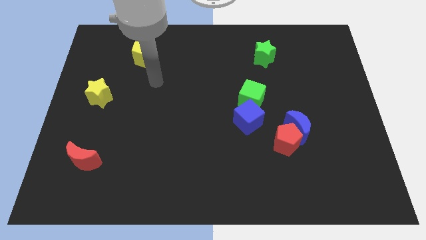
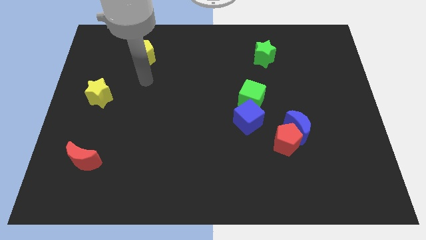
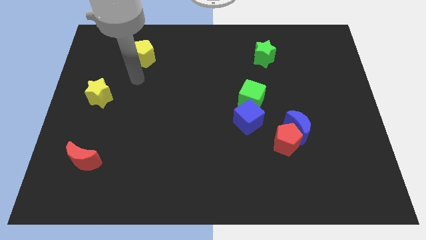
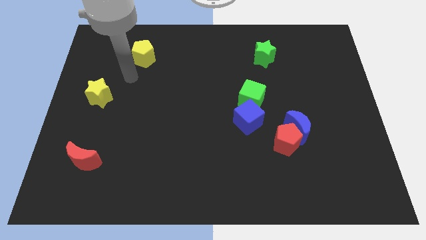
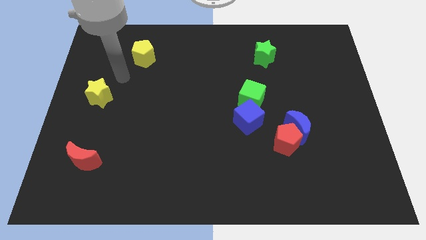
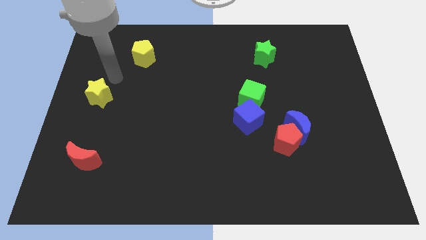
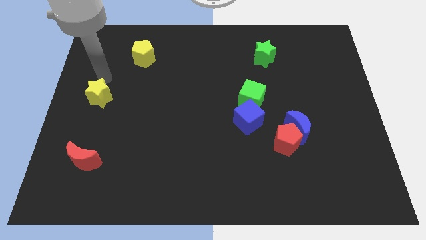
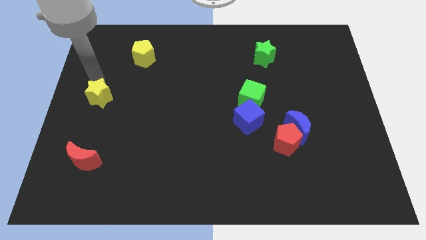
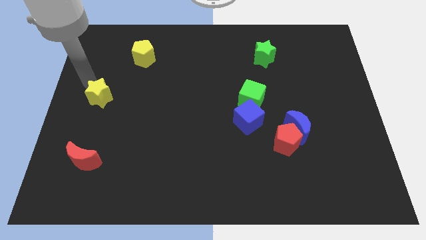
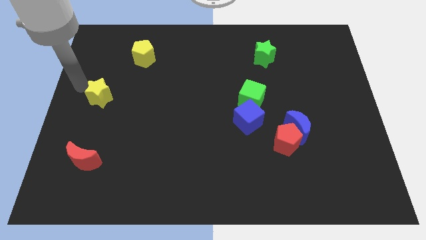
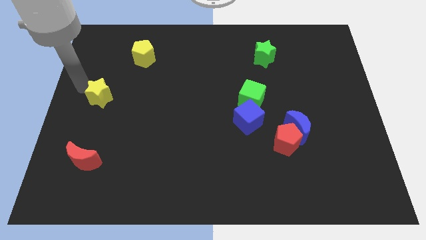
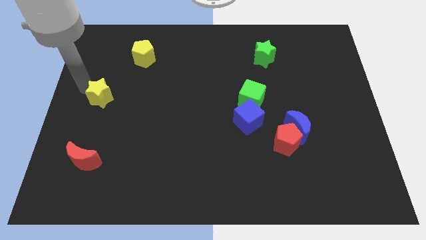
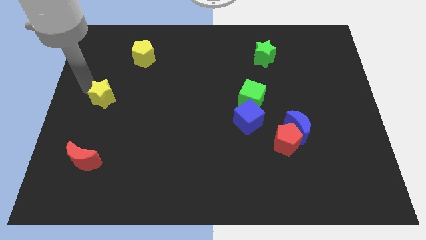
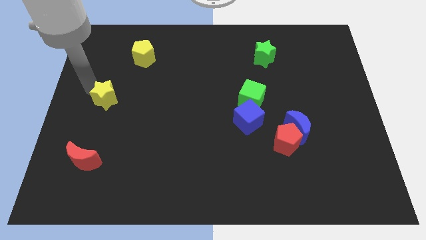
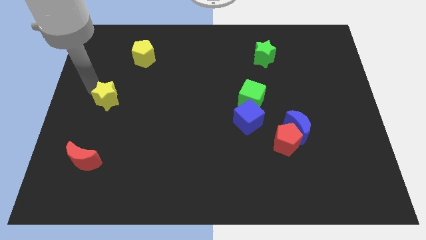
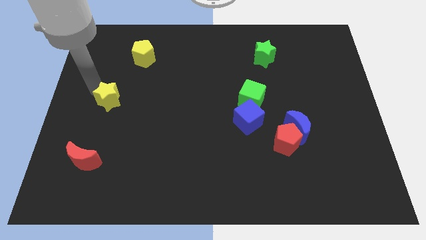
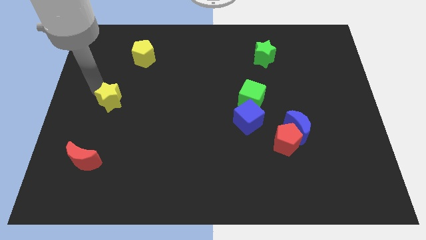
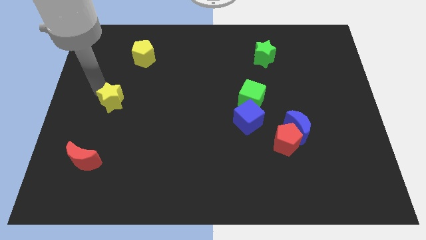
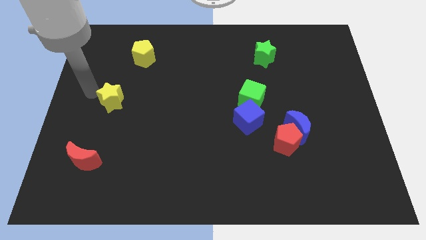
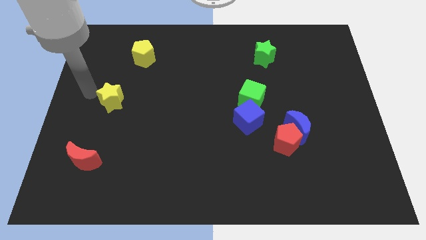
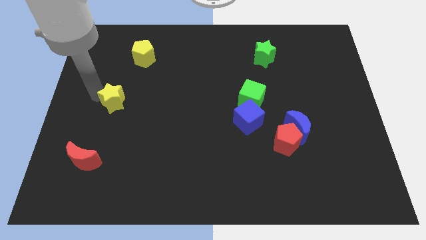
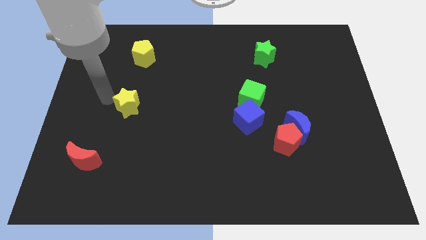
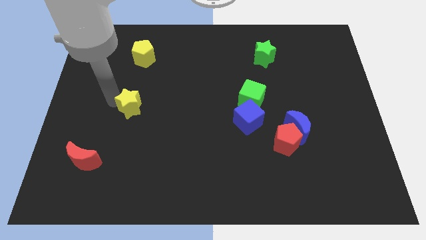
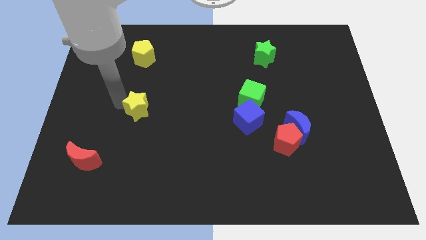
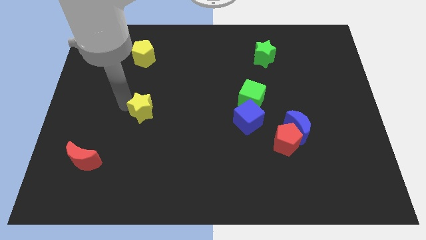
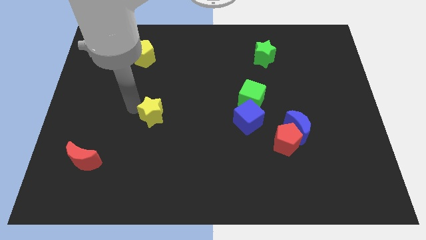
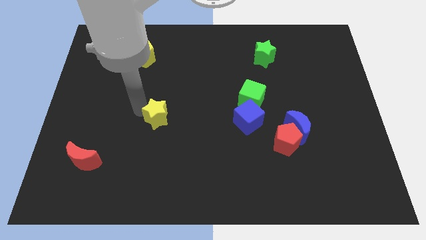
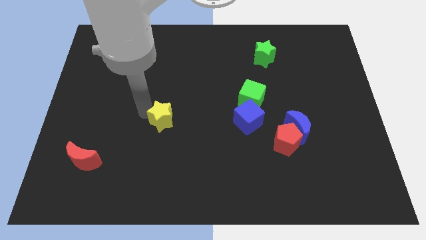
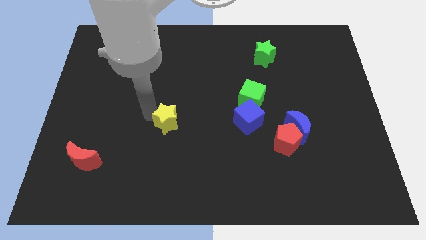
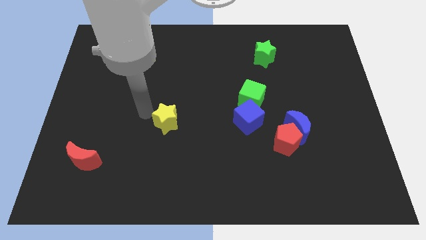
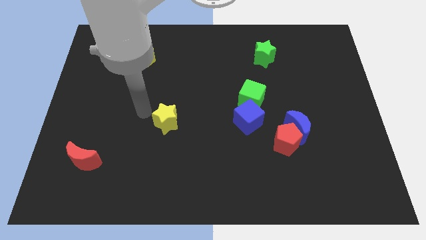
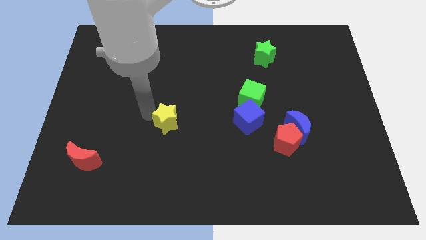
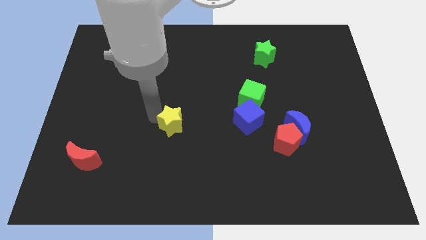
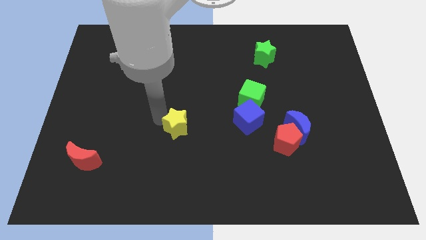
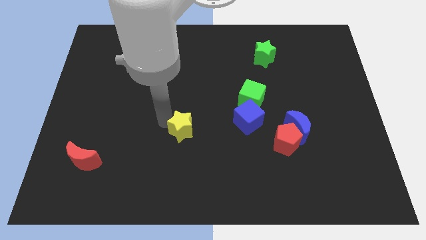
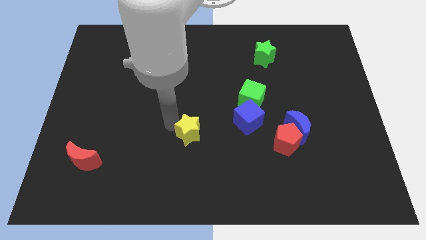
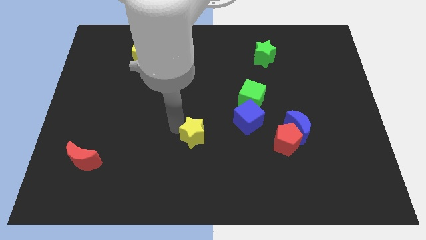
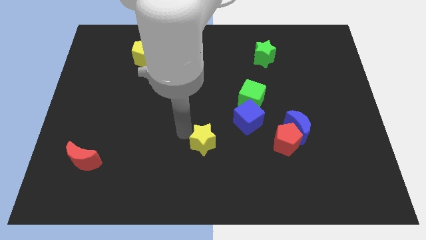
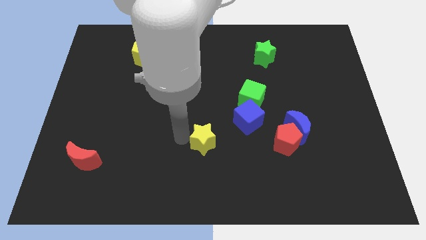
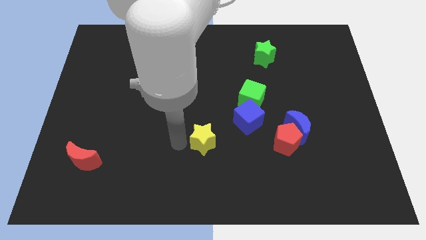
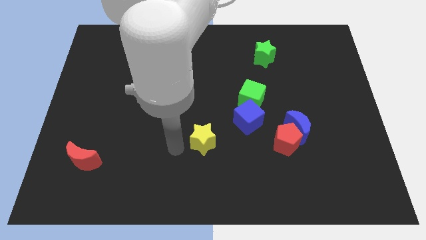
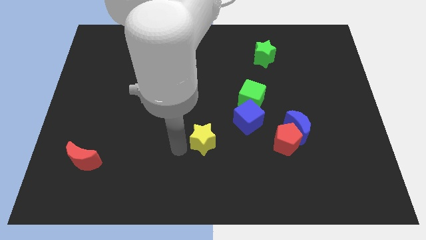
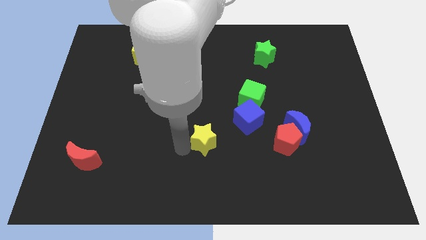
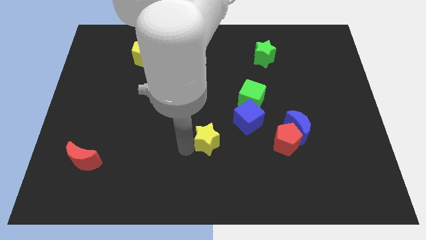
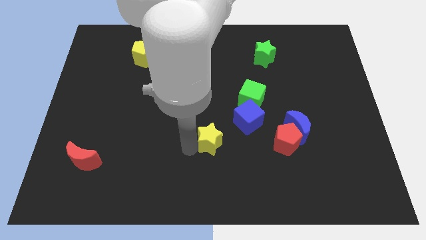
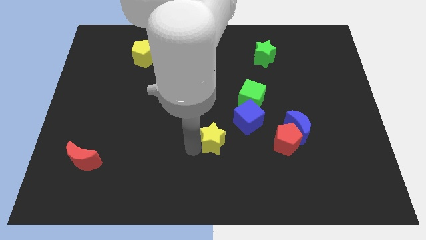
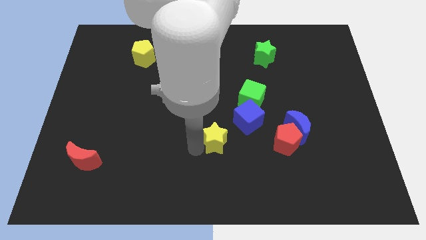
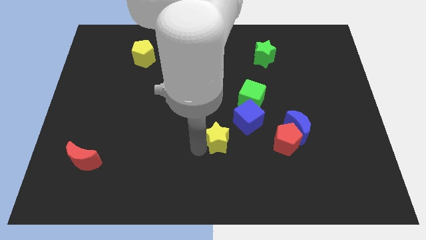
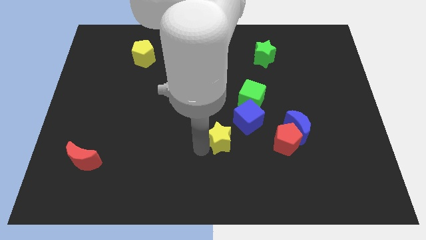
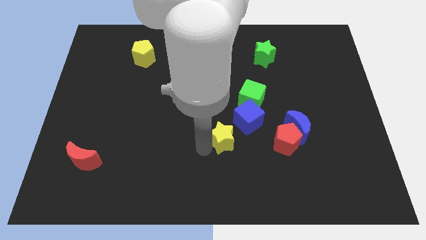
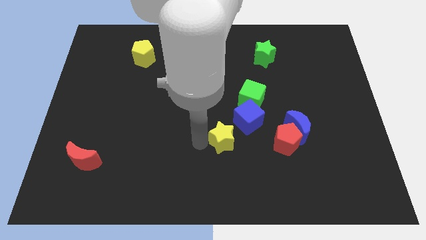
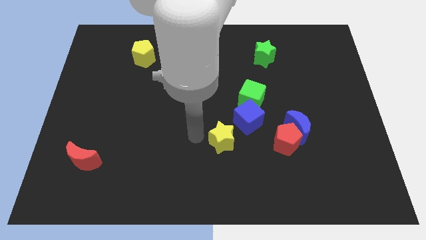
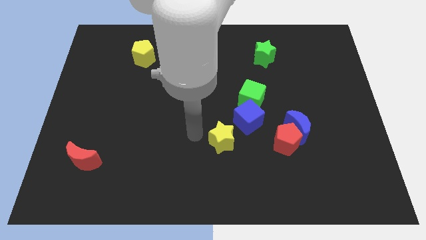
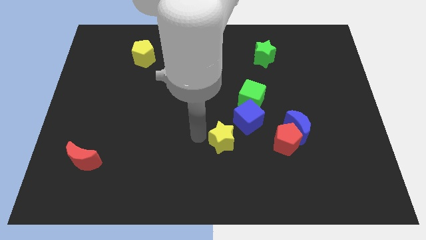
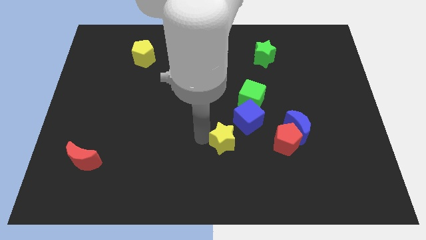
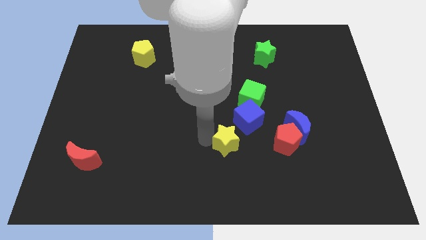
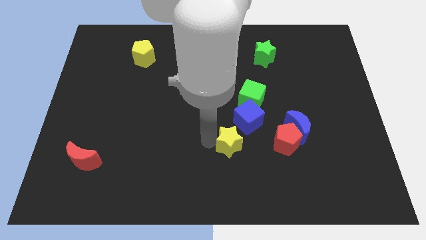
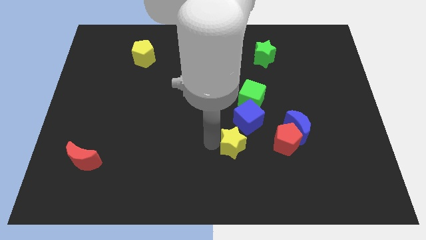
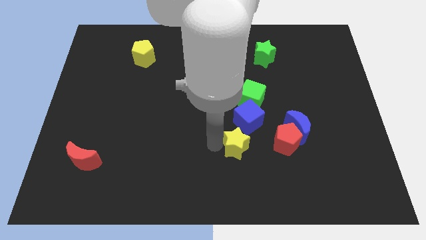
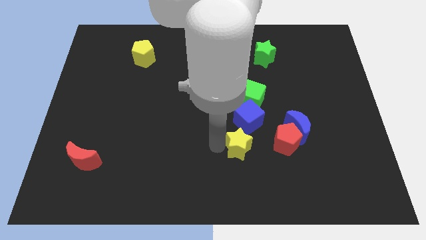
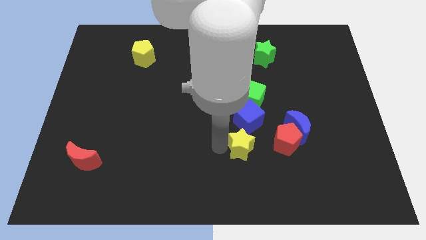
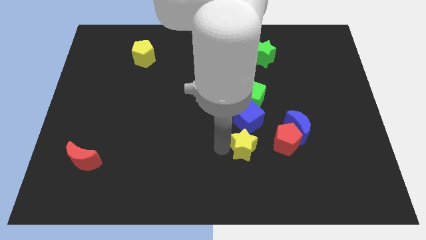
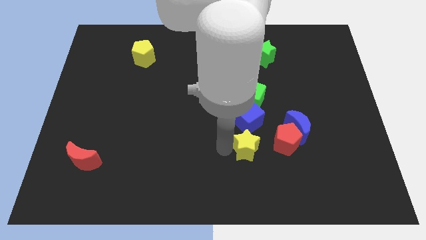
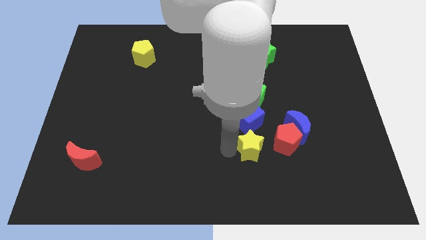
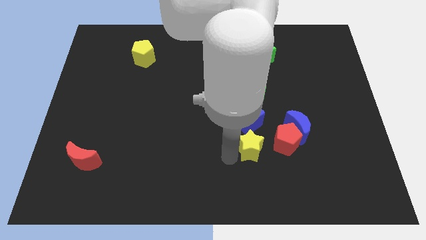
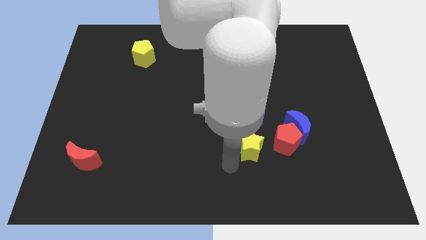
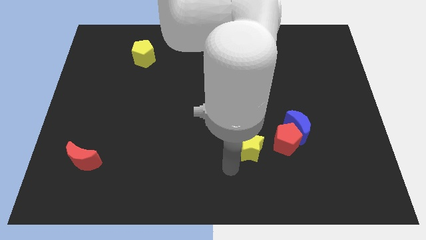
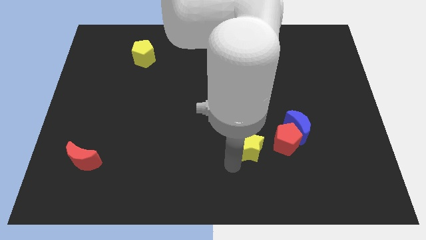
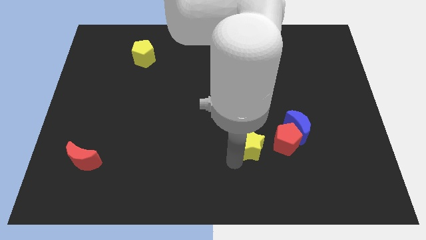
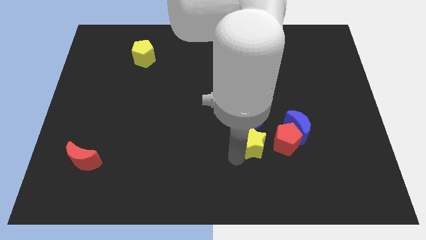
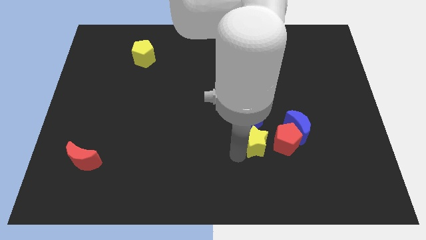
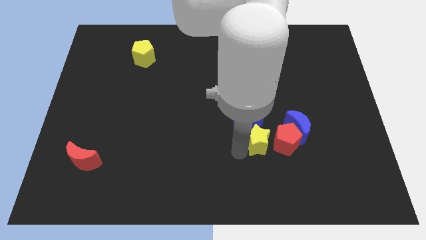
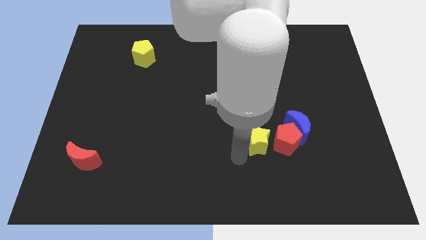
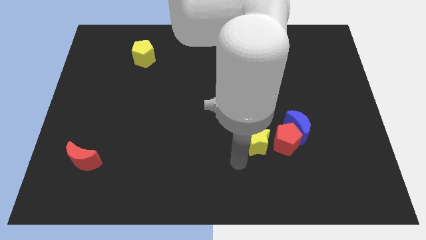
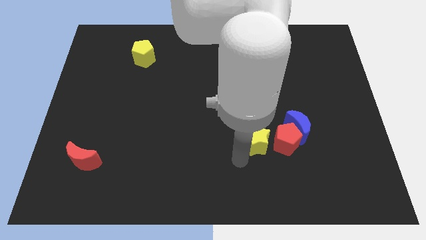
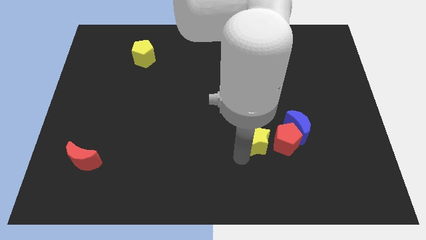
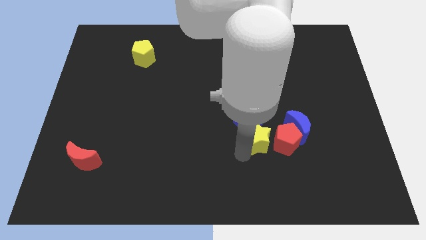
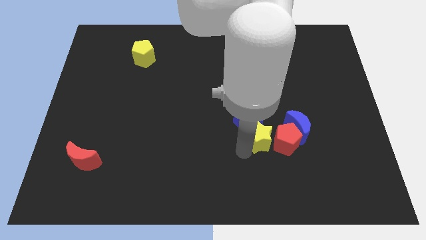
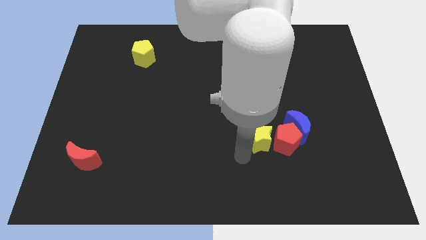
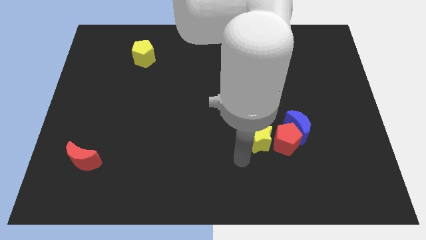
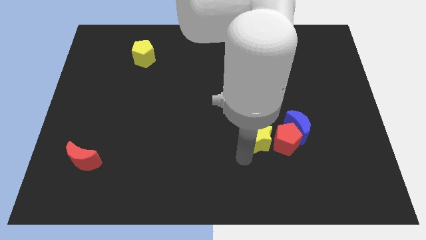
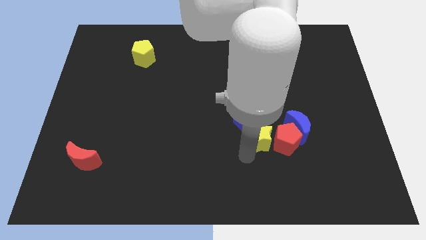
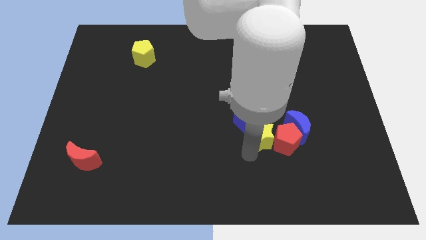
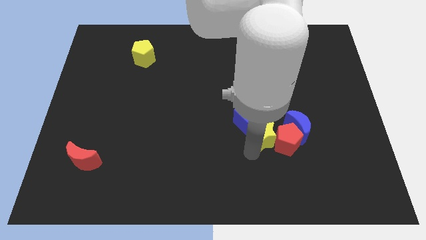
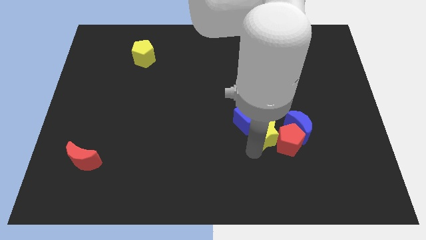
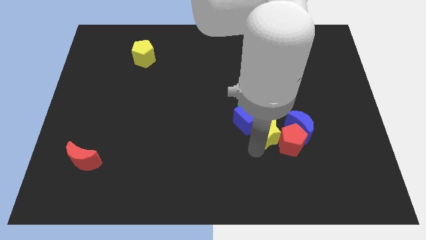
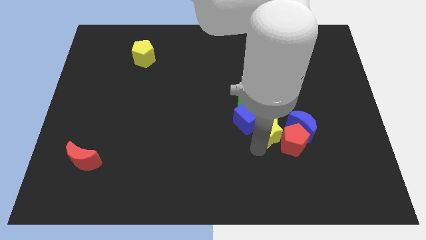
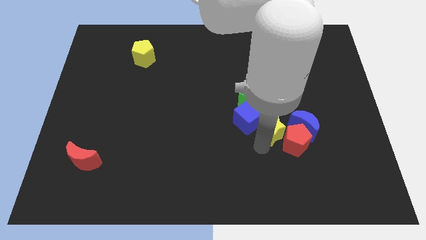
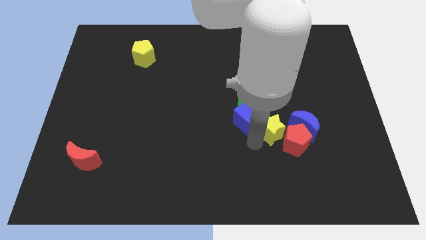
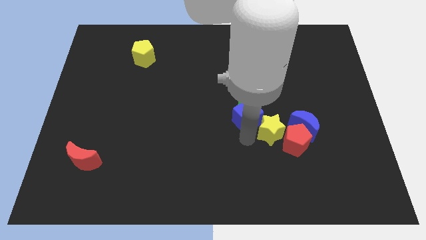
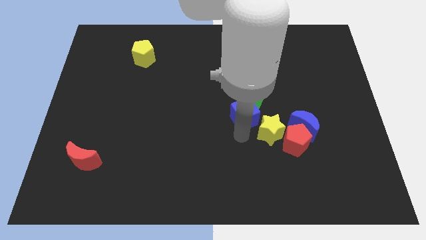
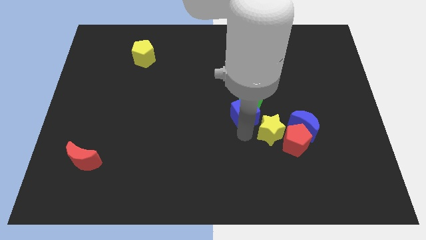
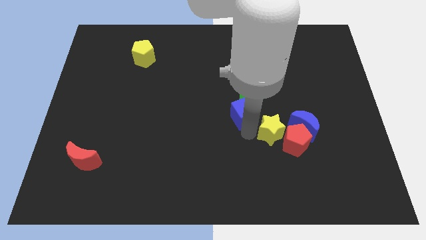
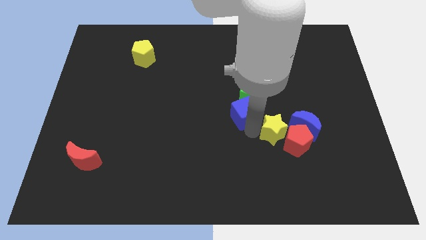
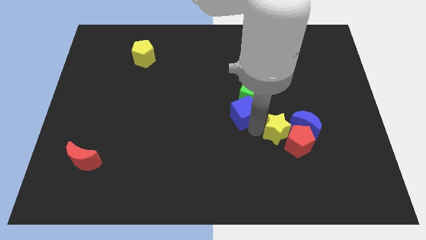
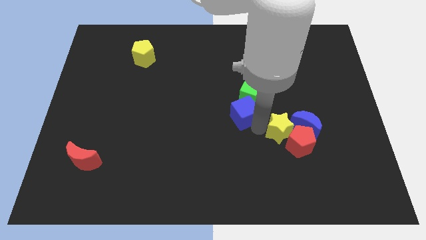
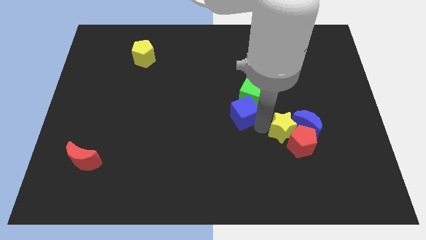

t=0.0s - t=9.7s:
put the yellow star next to the blue moon
